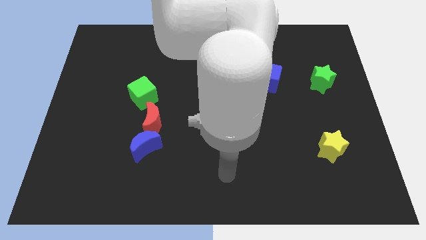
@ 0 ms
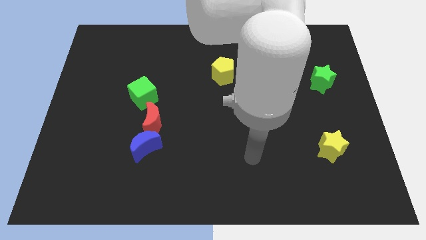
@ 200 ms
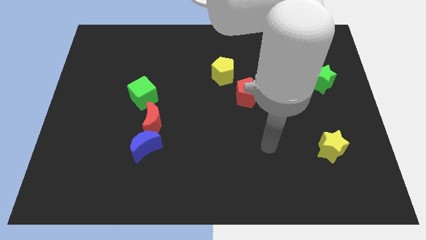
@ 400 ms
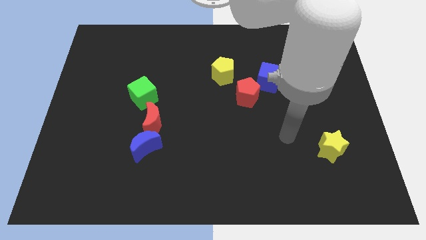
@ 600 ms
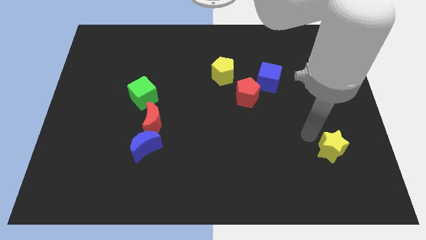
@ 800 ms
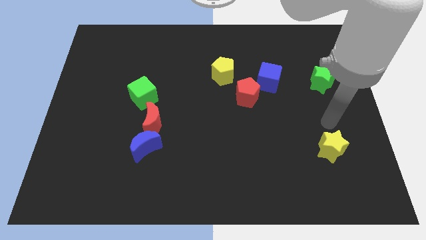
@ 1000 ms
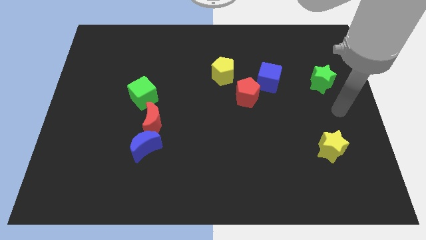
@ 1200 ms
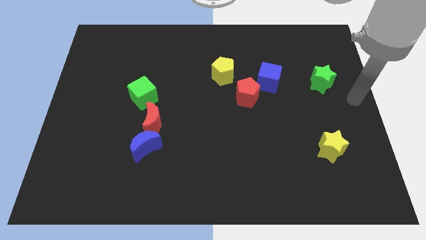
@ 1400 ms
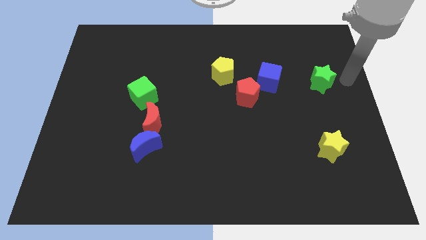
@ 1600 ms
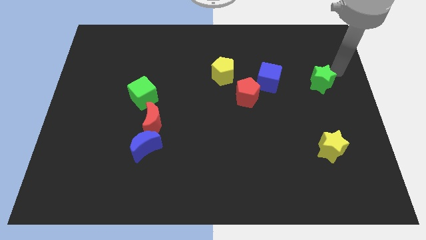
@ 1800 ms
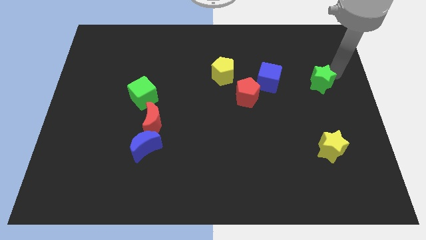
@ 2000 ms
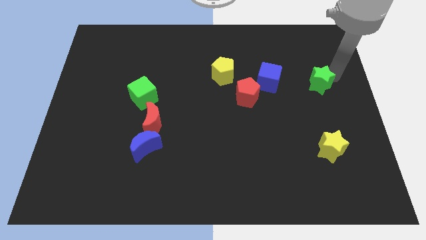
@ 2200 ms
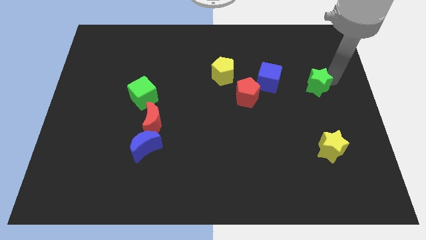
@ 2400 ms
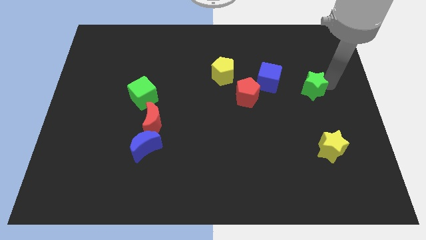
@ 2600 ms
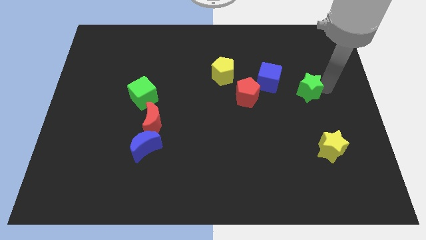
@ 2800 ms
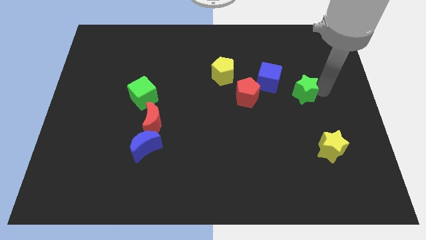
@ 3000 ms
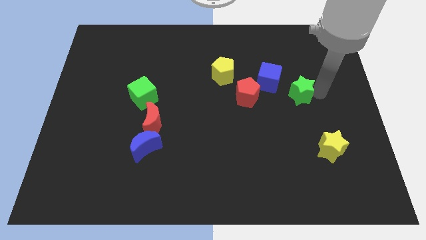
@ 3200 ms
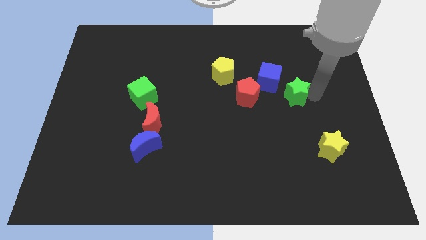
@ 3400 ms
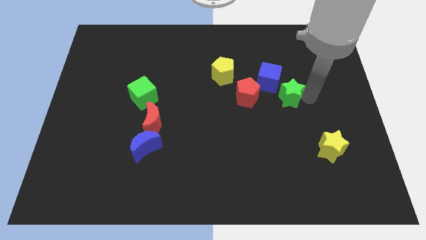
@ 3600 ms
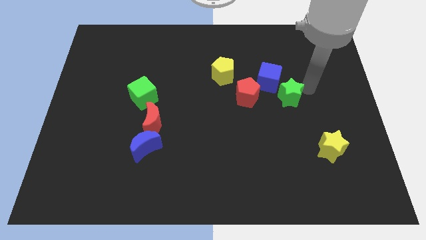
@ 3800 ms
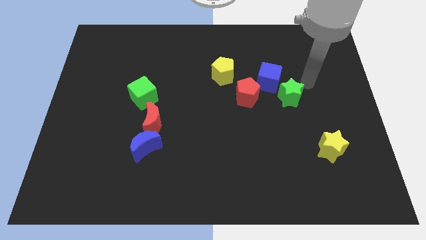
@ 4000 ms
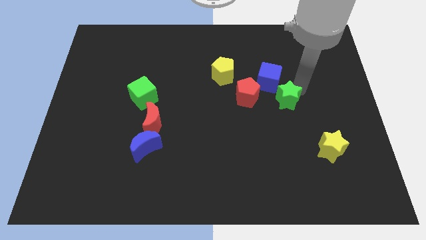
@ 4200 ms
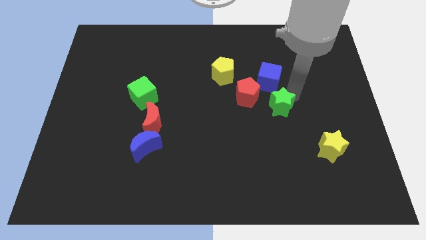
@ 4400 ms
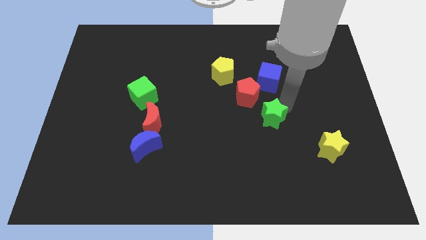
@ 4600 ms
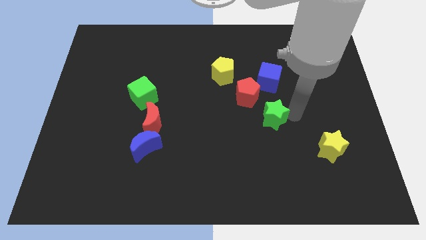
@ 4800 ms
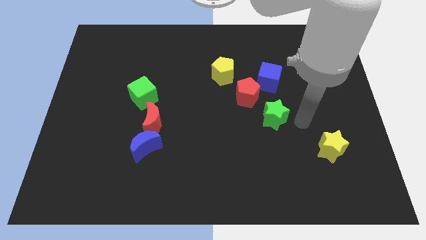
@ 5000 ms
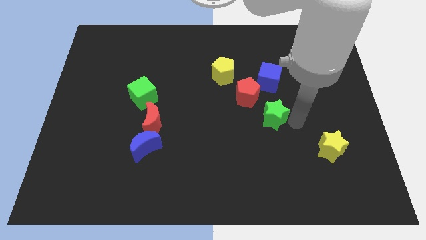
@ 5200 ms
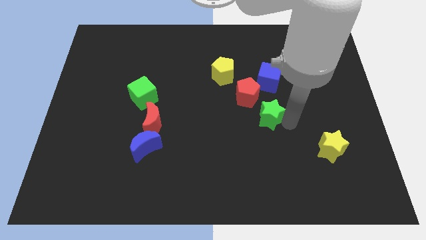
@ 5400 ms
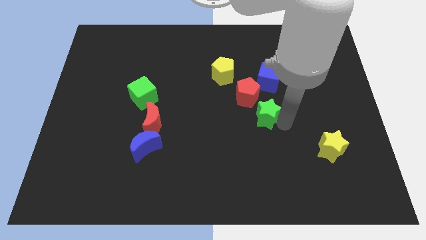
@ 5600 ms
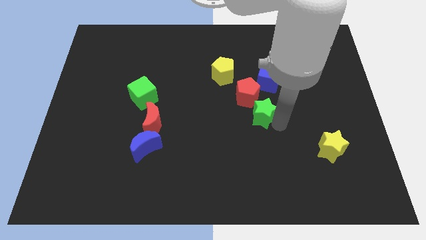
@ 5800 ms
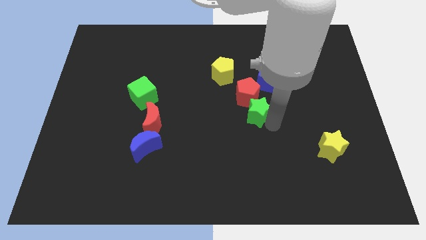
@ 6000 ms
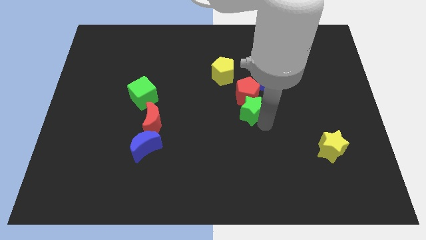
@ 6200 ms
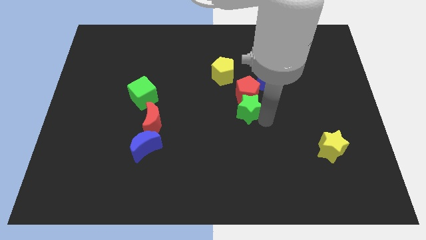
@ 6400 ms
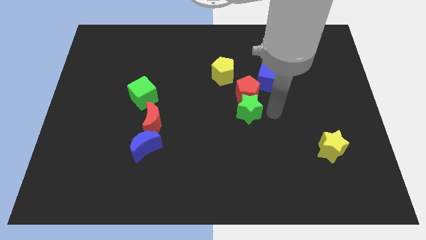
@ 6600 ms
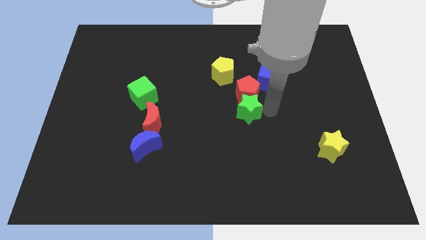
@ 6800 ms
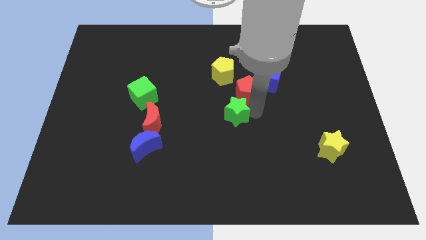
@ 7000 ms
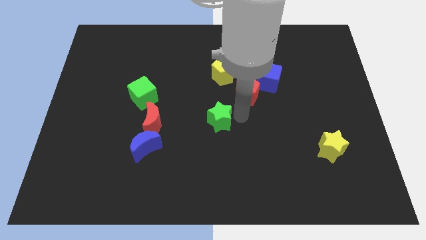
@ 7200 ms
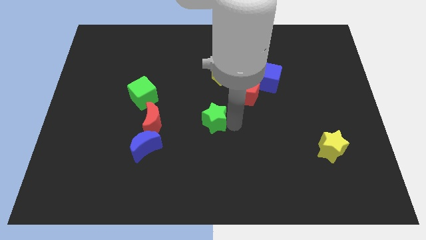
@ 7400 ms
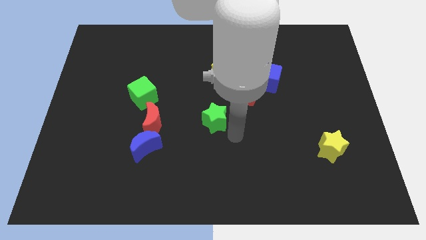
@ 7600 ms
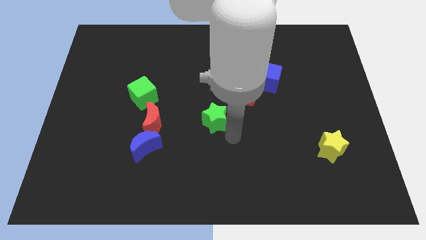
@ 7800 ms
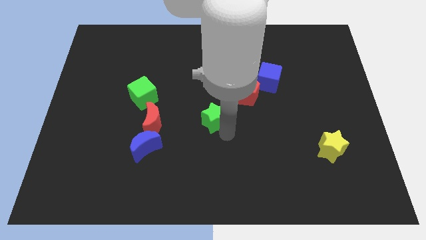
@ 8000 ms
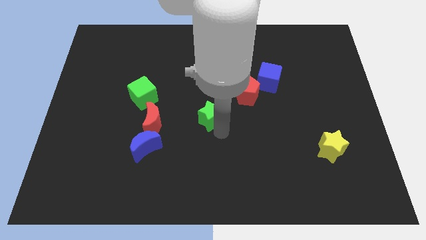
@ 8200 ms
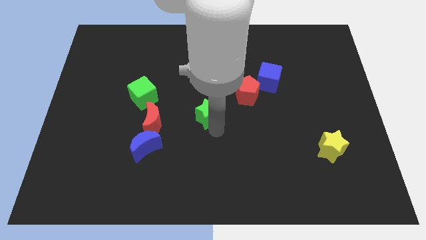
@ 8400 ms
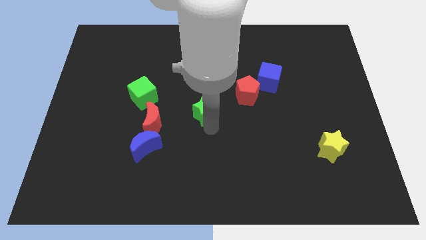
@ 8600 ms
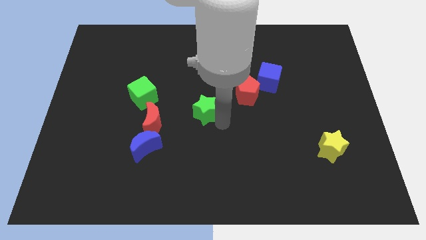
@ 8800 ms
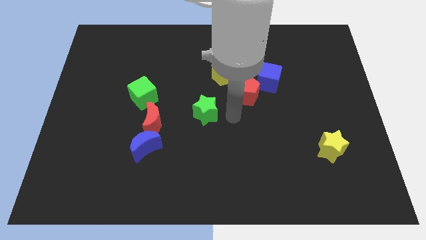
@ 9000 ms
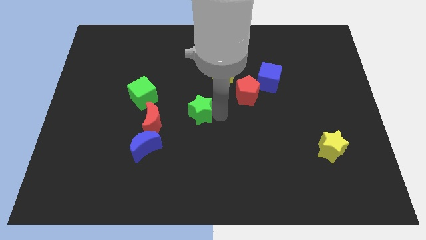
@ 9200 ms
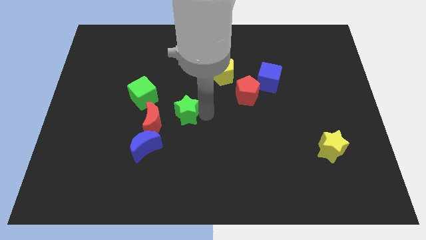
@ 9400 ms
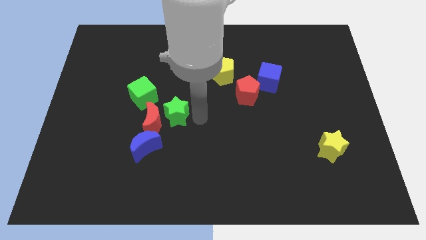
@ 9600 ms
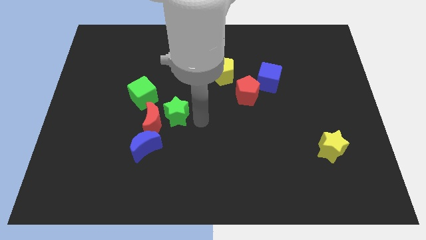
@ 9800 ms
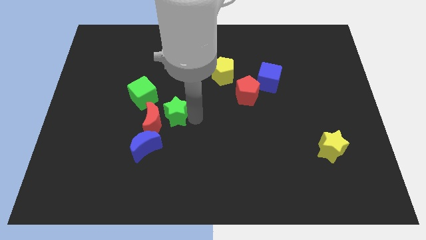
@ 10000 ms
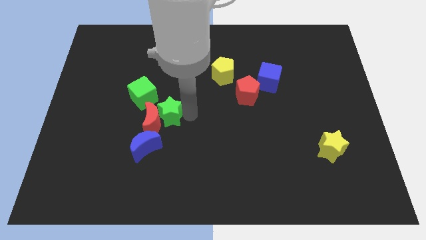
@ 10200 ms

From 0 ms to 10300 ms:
push the green star to the top of the blue moon

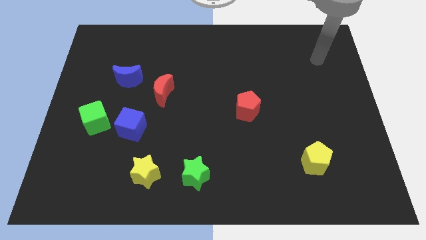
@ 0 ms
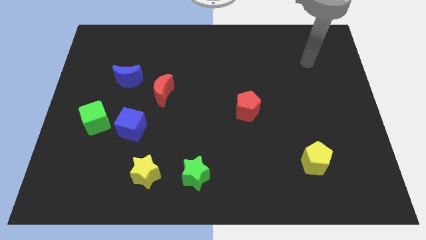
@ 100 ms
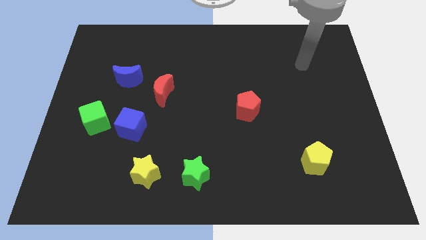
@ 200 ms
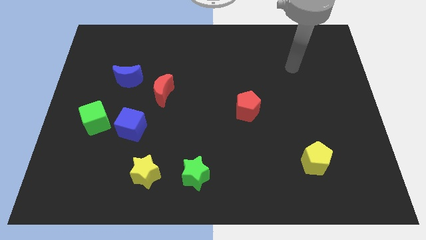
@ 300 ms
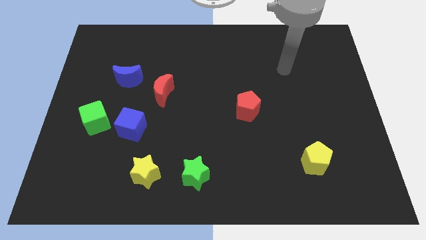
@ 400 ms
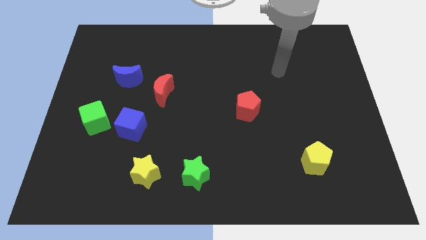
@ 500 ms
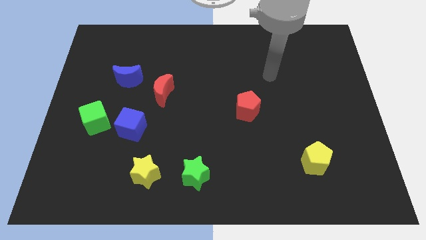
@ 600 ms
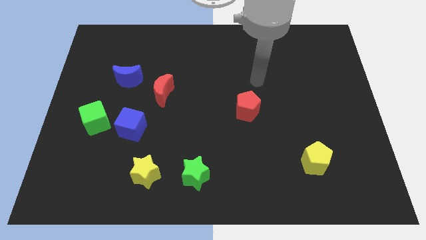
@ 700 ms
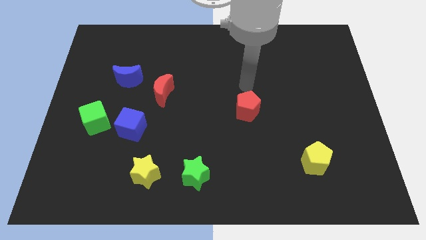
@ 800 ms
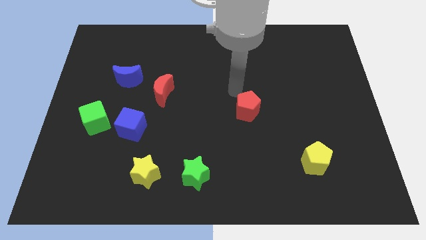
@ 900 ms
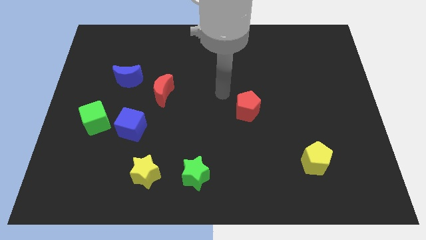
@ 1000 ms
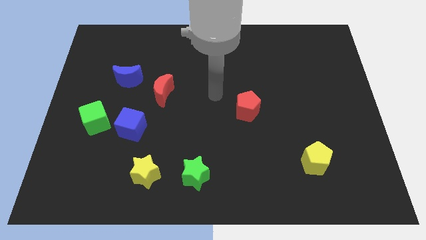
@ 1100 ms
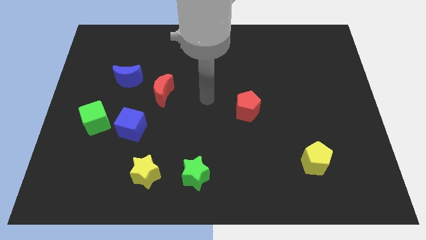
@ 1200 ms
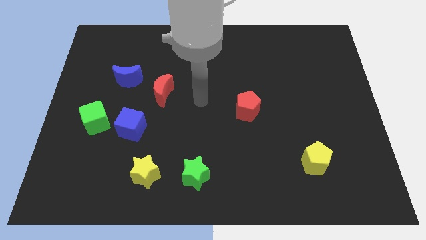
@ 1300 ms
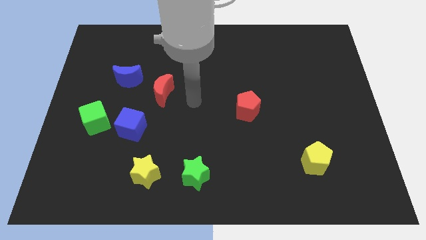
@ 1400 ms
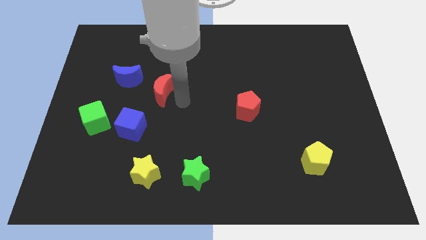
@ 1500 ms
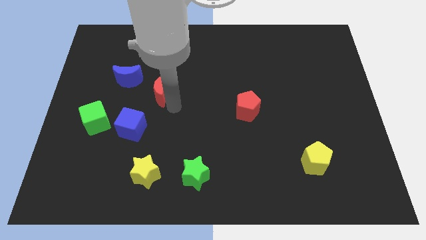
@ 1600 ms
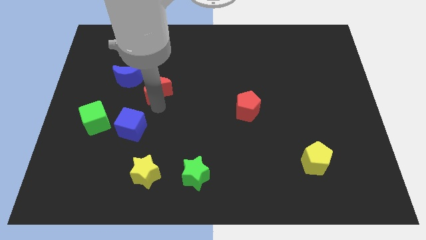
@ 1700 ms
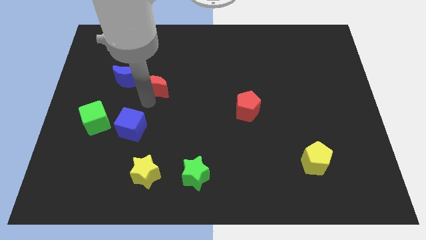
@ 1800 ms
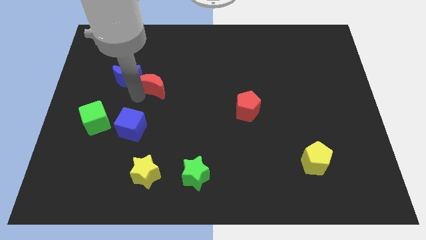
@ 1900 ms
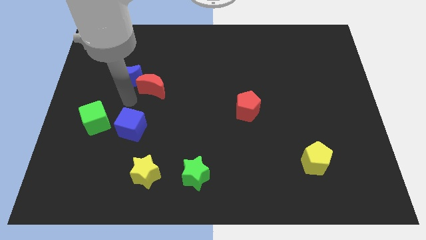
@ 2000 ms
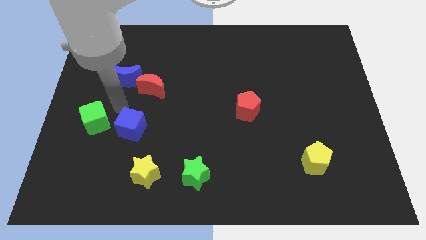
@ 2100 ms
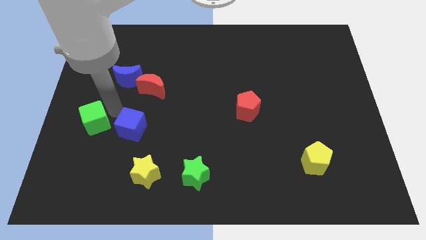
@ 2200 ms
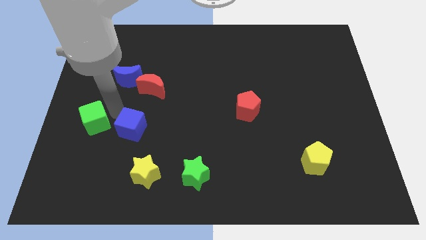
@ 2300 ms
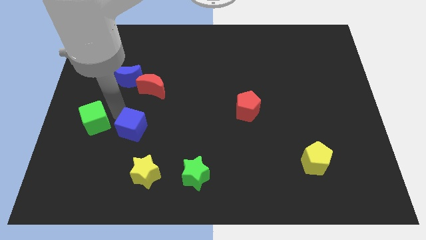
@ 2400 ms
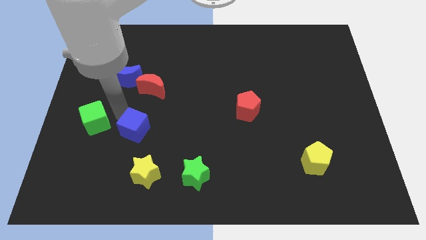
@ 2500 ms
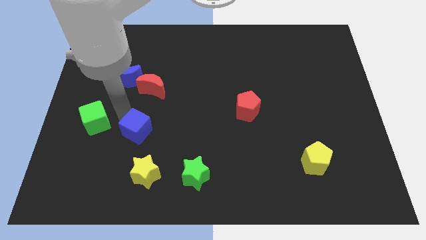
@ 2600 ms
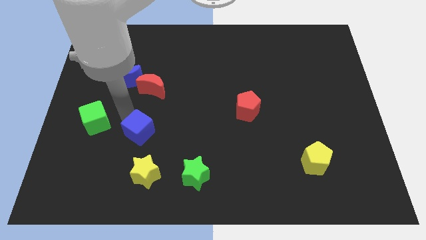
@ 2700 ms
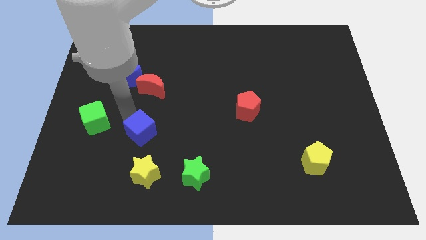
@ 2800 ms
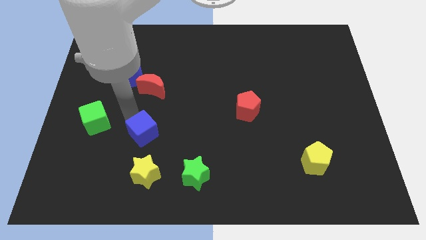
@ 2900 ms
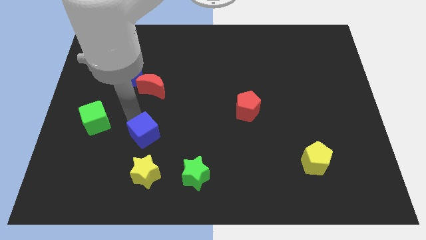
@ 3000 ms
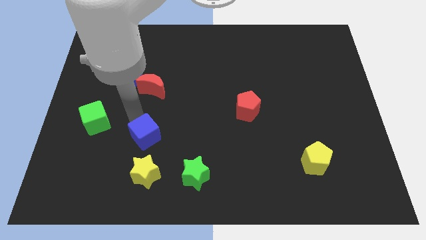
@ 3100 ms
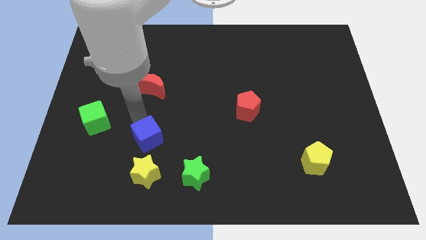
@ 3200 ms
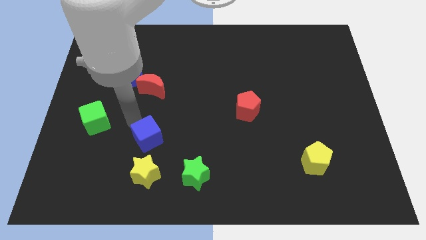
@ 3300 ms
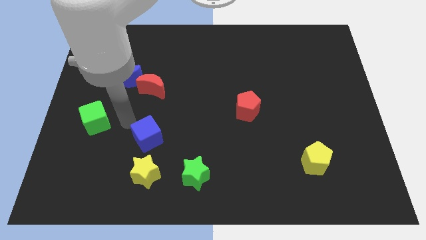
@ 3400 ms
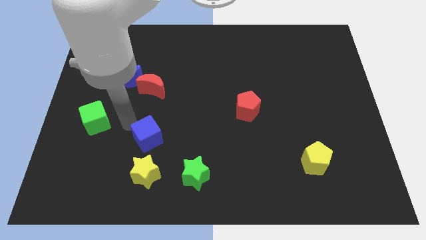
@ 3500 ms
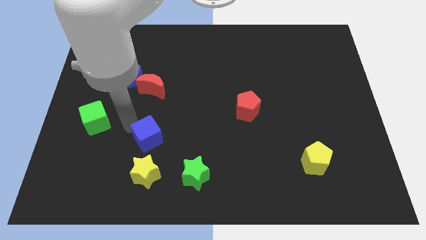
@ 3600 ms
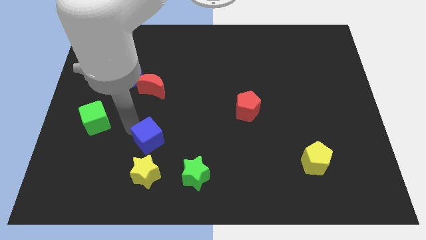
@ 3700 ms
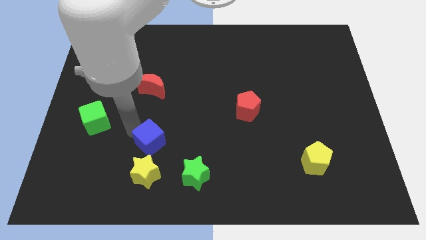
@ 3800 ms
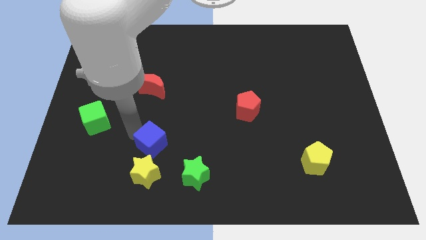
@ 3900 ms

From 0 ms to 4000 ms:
push the blue cube diagonally up and to the left of the green star
